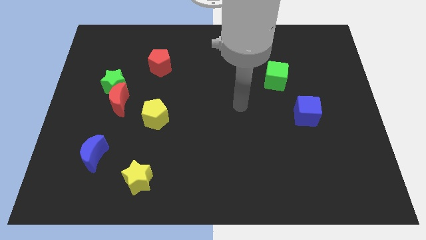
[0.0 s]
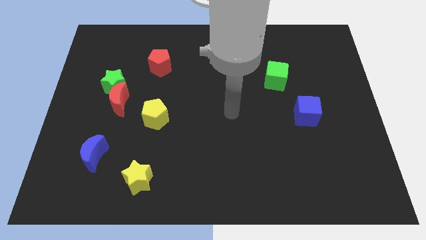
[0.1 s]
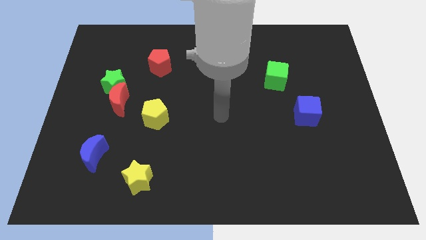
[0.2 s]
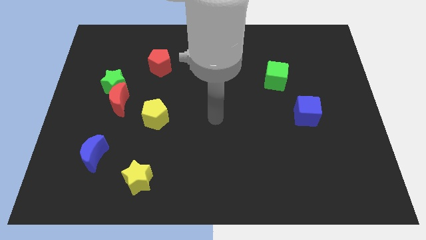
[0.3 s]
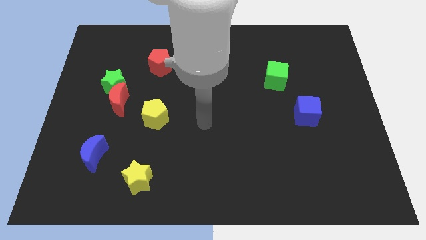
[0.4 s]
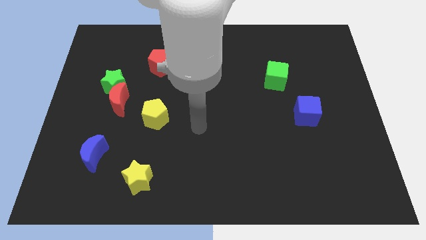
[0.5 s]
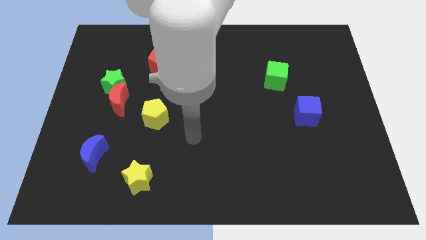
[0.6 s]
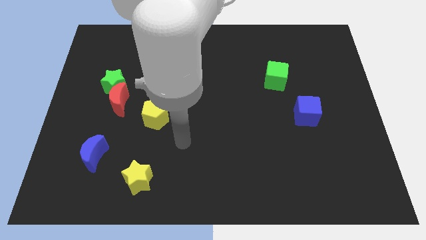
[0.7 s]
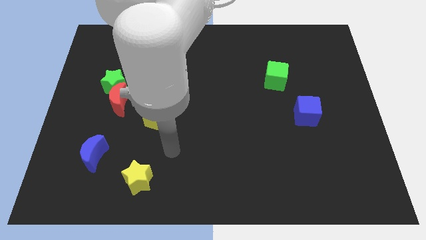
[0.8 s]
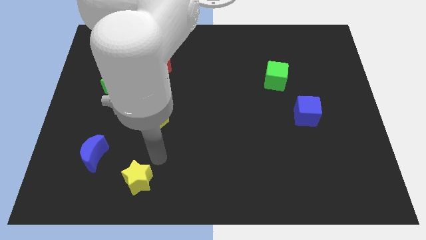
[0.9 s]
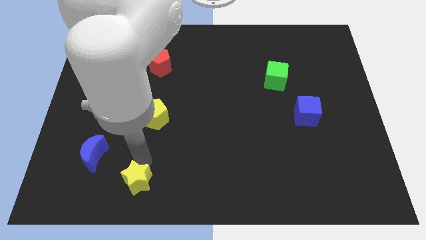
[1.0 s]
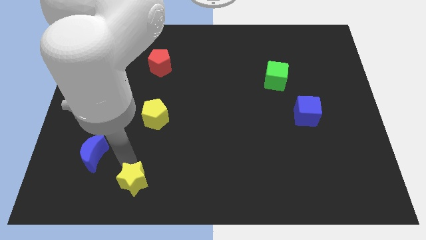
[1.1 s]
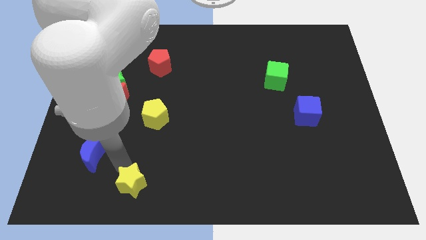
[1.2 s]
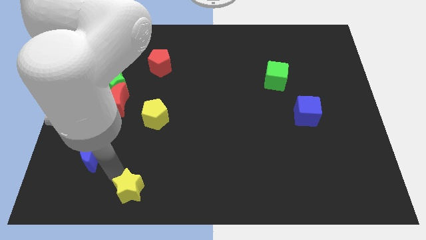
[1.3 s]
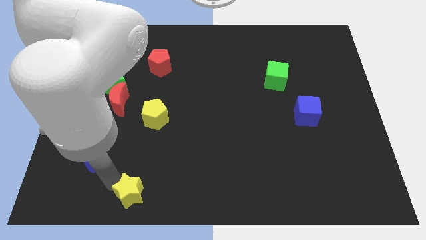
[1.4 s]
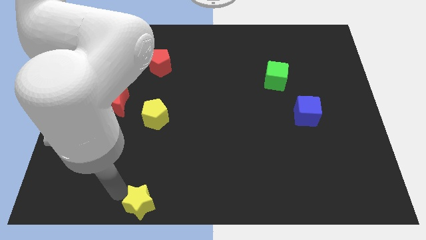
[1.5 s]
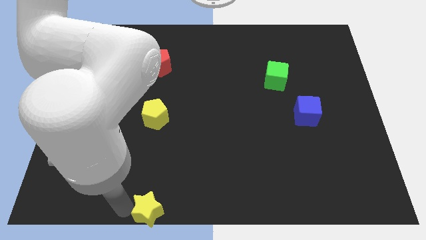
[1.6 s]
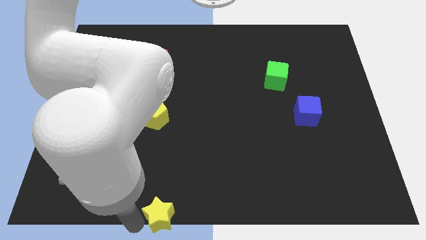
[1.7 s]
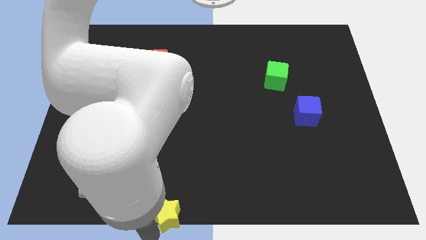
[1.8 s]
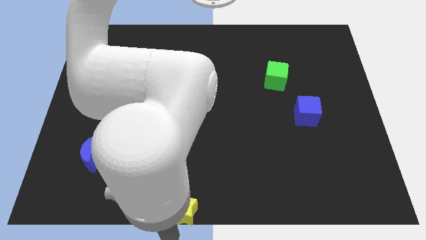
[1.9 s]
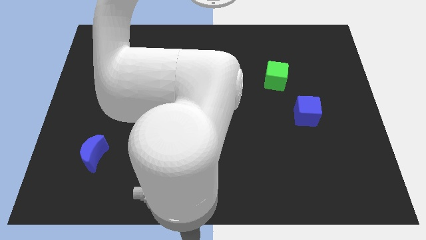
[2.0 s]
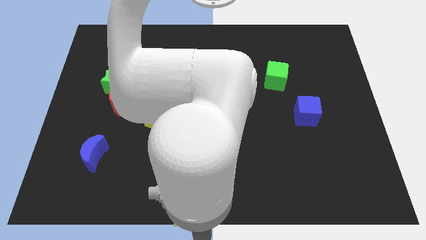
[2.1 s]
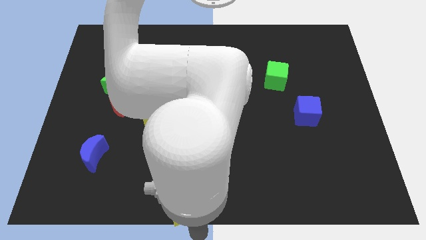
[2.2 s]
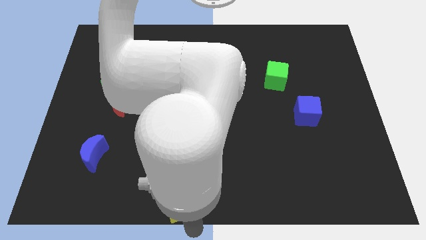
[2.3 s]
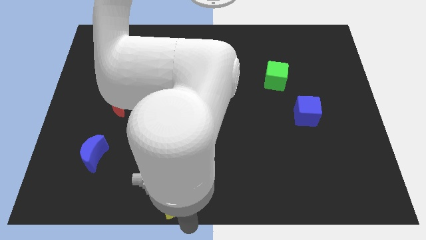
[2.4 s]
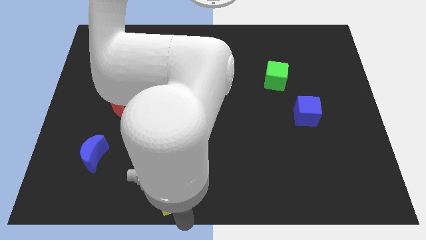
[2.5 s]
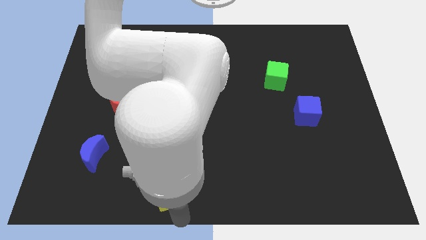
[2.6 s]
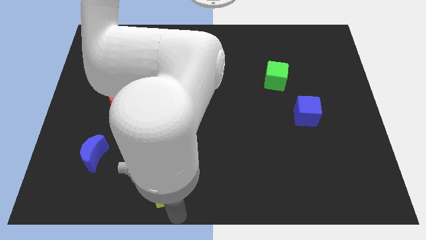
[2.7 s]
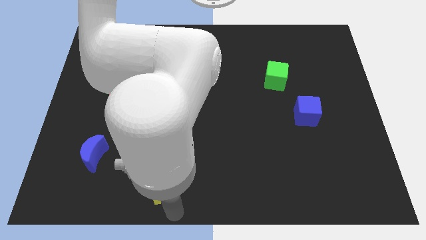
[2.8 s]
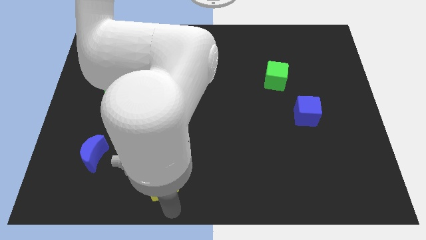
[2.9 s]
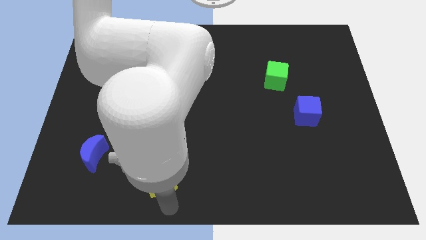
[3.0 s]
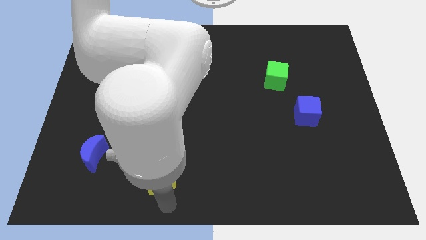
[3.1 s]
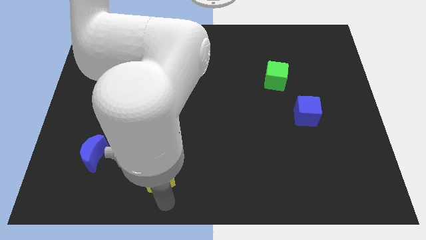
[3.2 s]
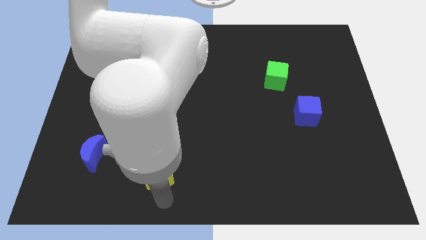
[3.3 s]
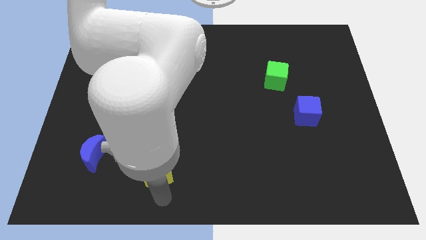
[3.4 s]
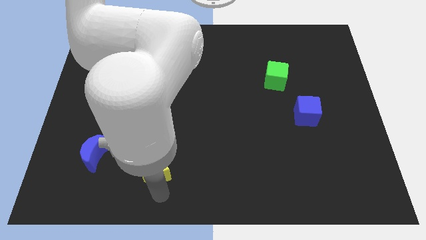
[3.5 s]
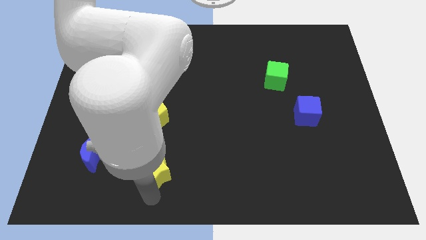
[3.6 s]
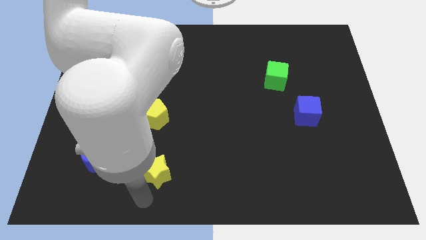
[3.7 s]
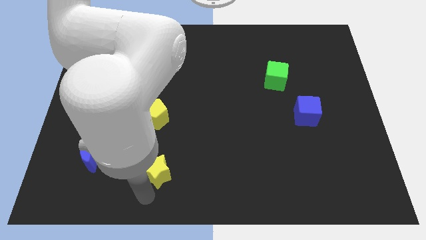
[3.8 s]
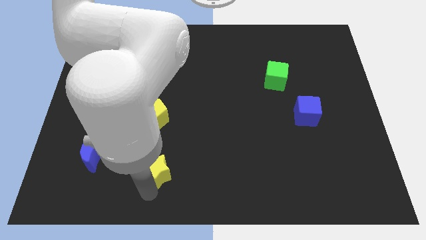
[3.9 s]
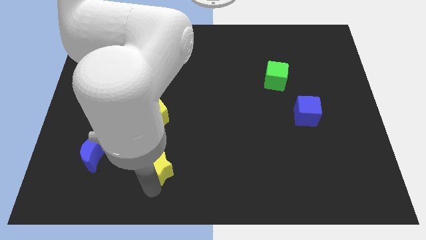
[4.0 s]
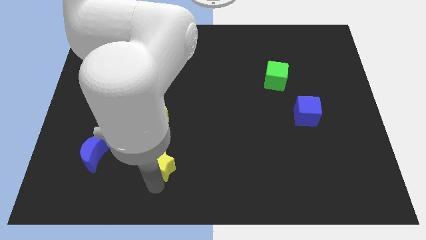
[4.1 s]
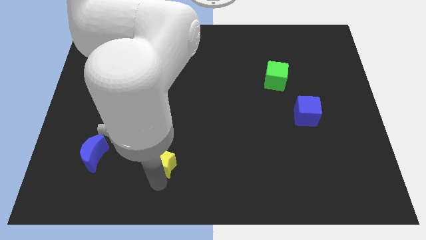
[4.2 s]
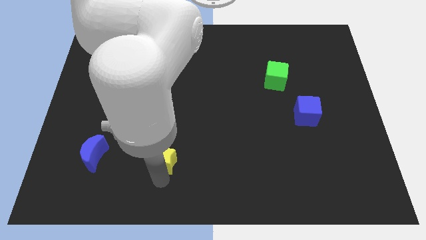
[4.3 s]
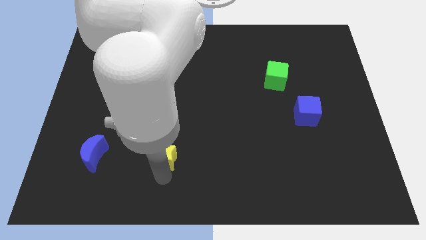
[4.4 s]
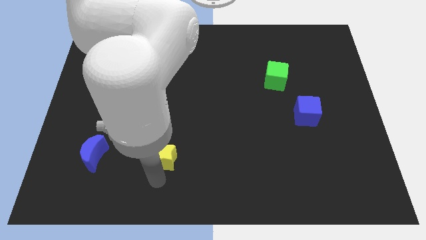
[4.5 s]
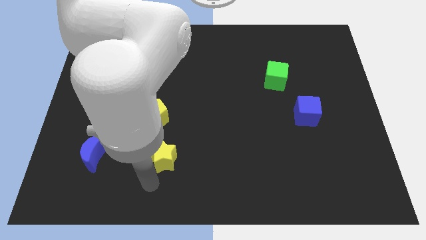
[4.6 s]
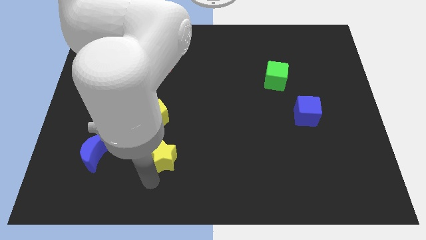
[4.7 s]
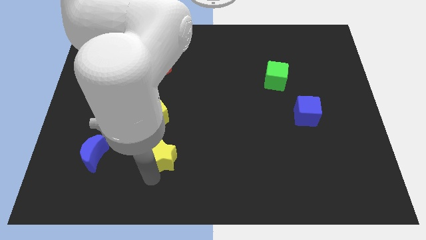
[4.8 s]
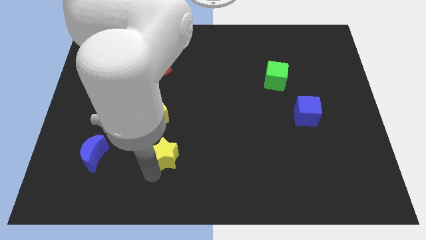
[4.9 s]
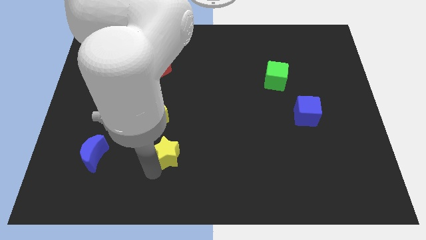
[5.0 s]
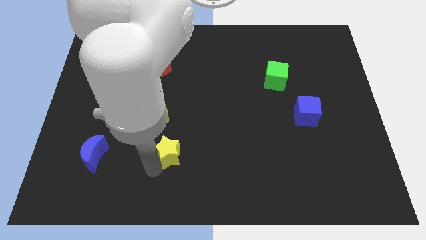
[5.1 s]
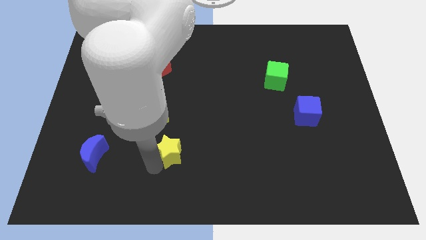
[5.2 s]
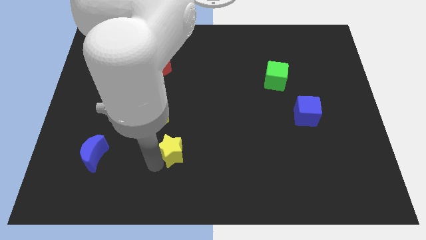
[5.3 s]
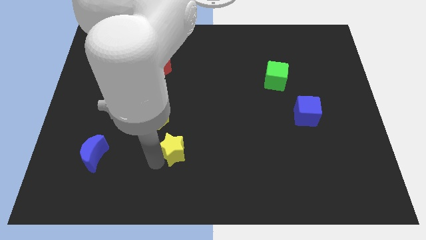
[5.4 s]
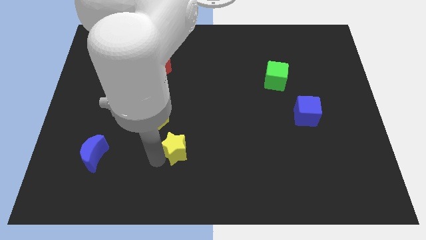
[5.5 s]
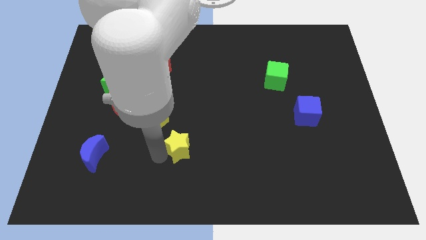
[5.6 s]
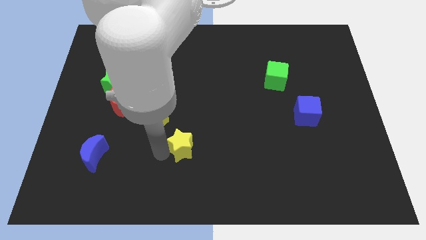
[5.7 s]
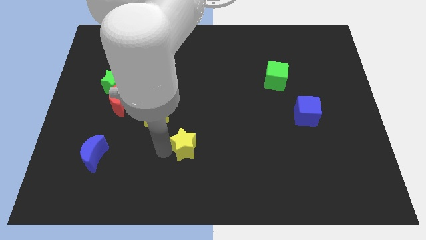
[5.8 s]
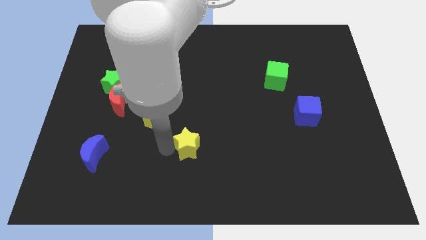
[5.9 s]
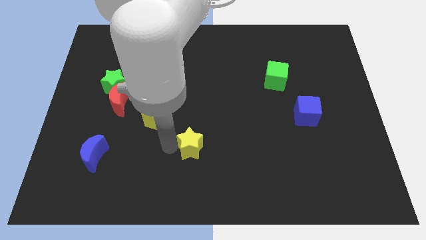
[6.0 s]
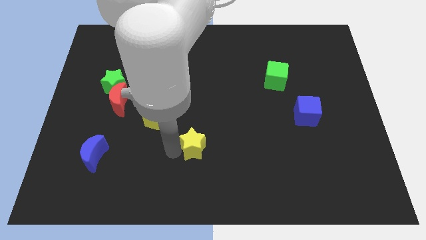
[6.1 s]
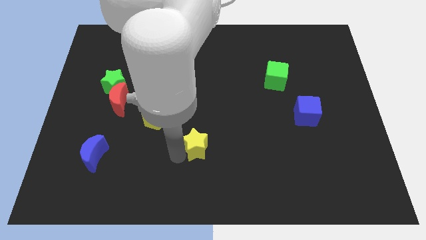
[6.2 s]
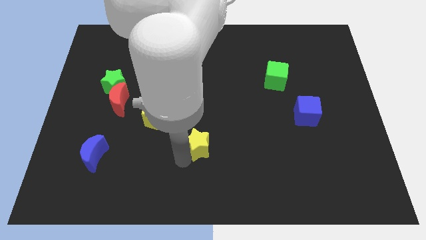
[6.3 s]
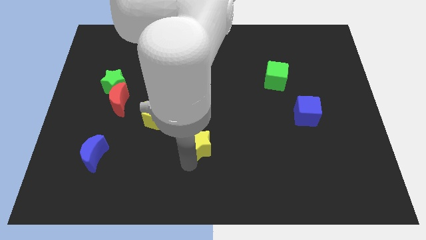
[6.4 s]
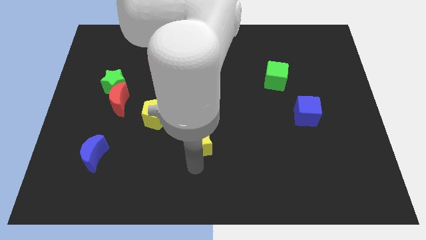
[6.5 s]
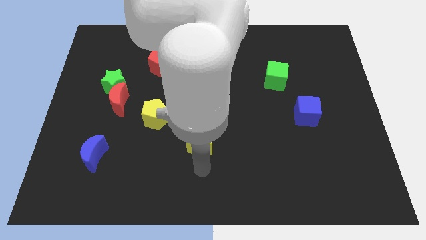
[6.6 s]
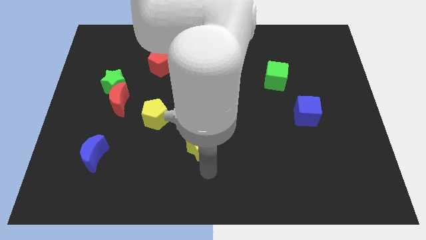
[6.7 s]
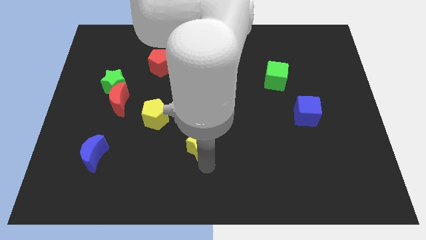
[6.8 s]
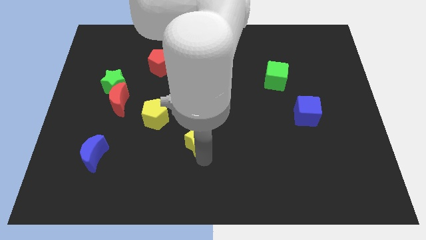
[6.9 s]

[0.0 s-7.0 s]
move the yellow star to the middle of the board
